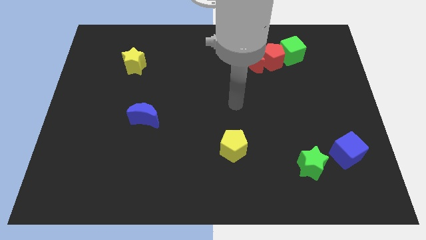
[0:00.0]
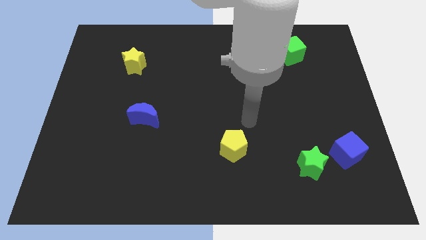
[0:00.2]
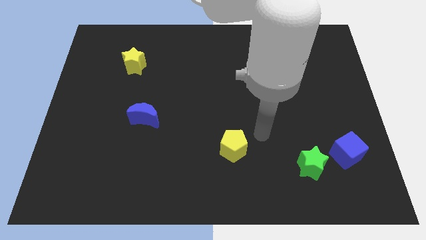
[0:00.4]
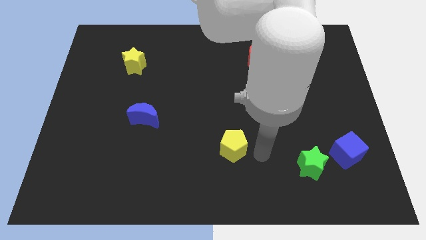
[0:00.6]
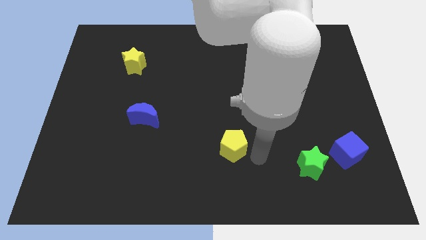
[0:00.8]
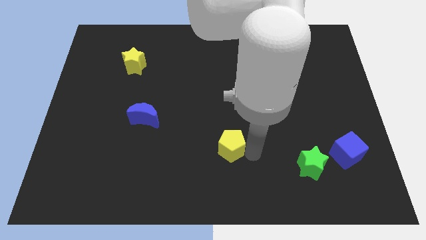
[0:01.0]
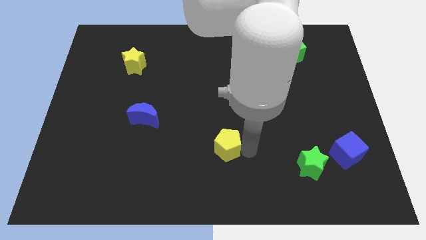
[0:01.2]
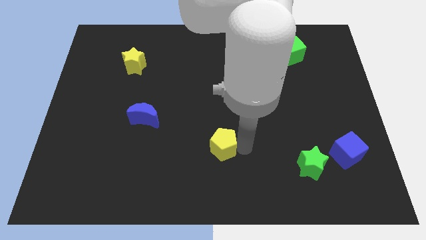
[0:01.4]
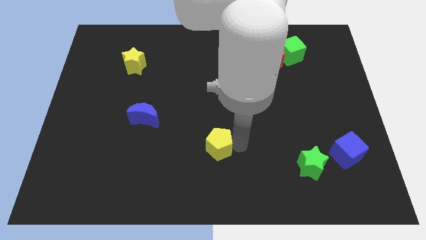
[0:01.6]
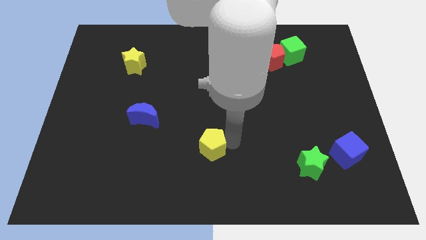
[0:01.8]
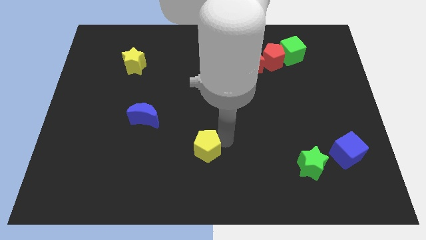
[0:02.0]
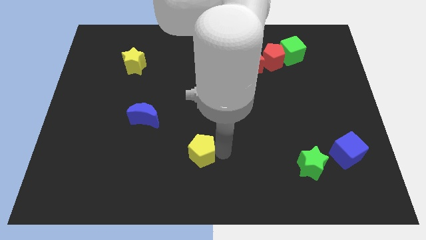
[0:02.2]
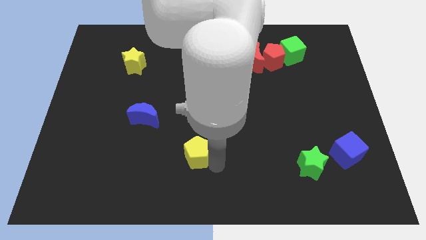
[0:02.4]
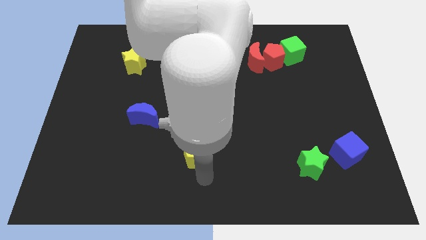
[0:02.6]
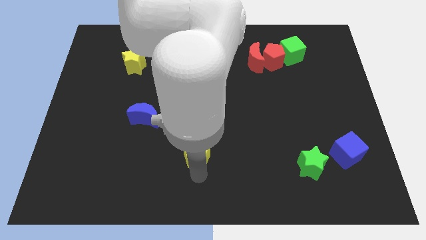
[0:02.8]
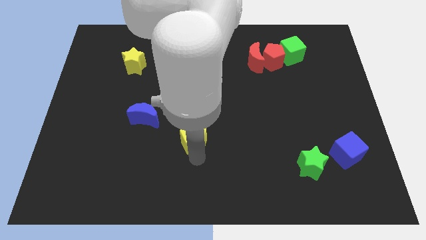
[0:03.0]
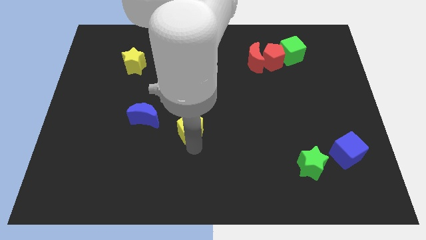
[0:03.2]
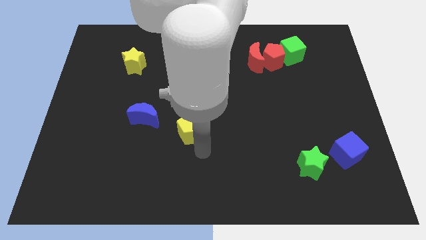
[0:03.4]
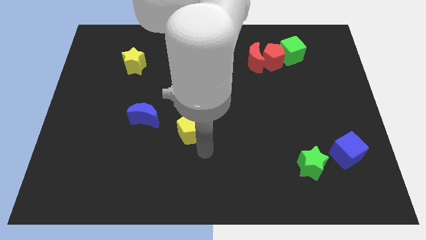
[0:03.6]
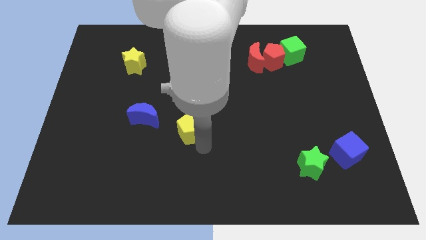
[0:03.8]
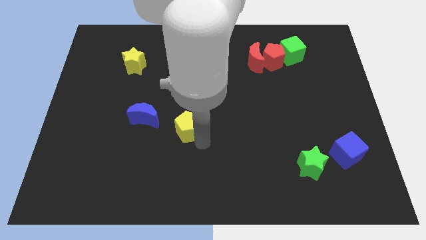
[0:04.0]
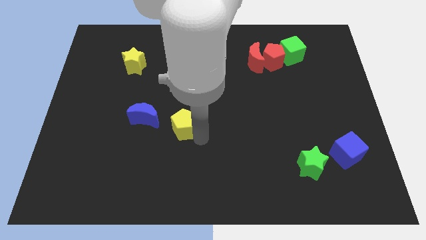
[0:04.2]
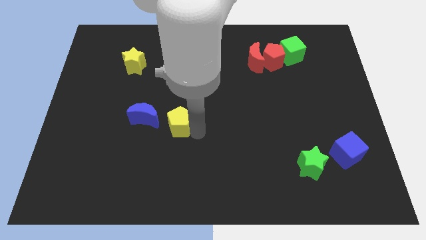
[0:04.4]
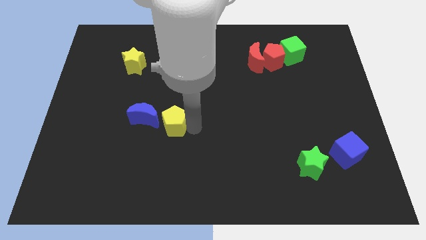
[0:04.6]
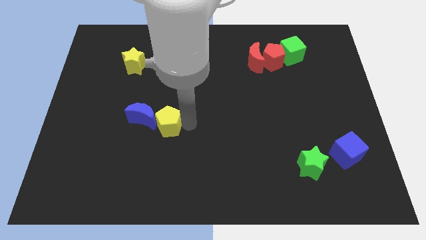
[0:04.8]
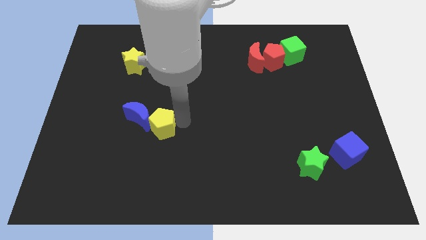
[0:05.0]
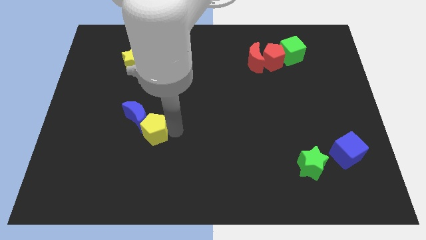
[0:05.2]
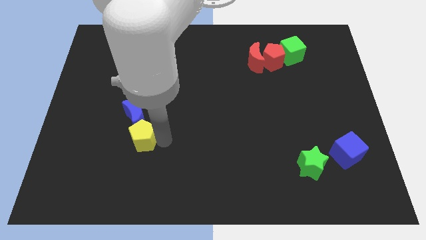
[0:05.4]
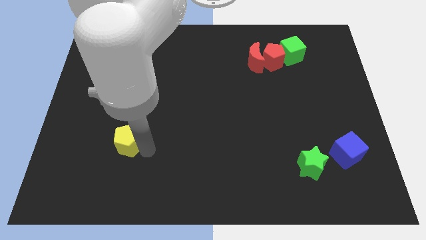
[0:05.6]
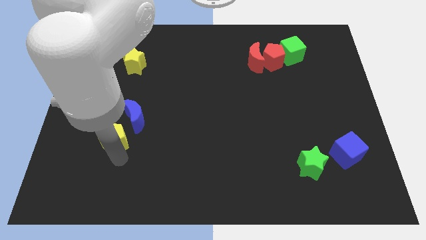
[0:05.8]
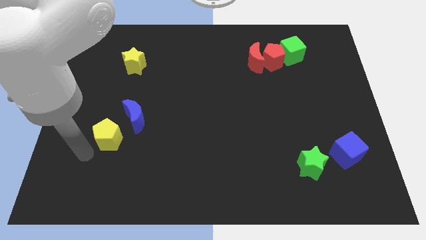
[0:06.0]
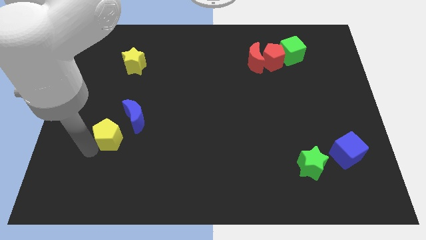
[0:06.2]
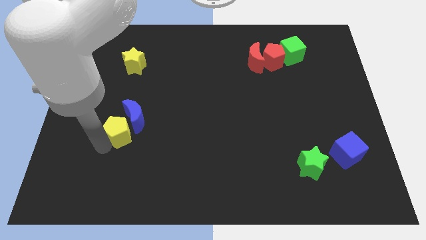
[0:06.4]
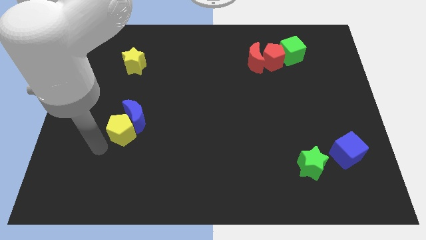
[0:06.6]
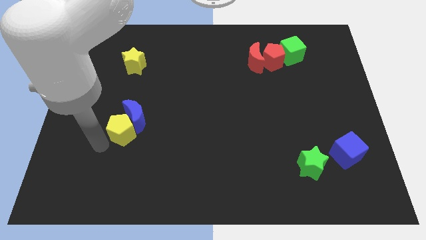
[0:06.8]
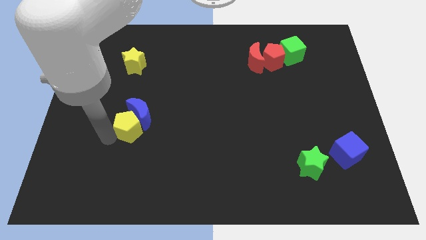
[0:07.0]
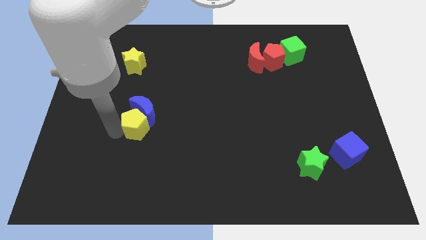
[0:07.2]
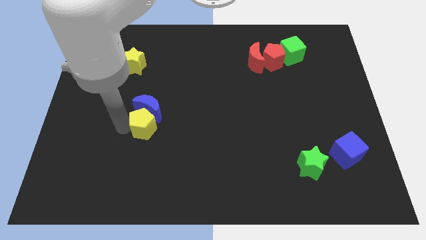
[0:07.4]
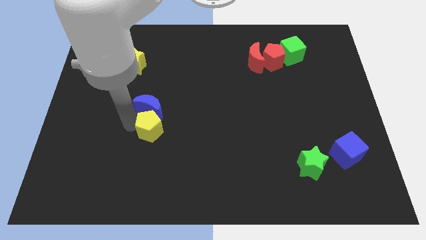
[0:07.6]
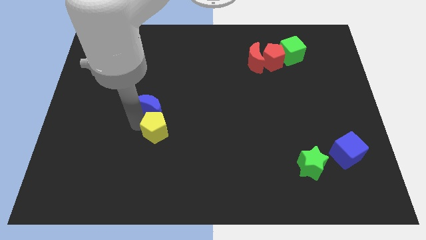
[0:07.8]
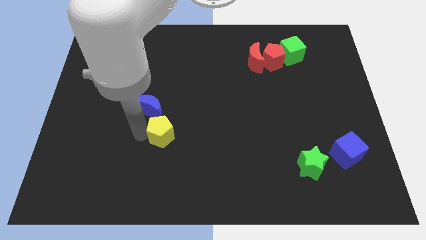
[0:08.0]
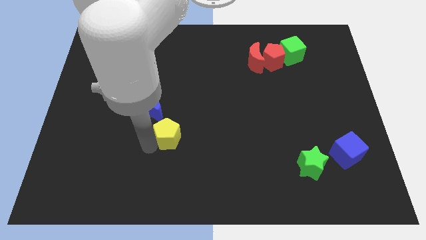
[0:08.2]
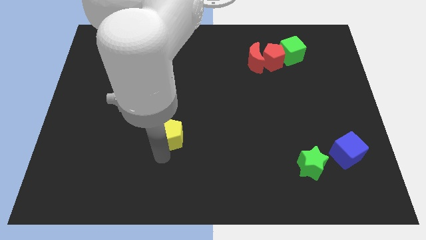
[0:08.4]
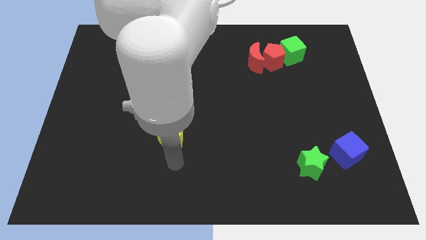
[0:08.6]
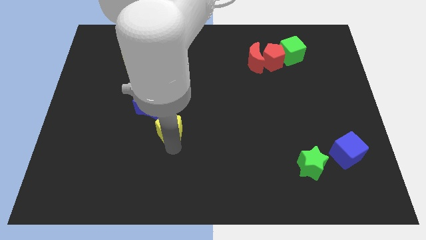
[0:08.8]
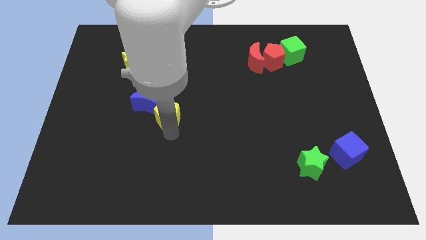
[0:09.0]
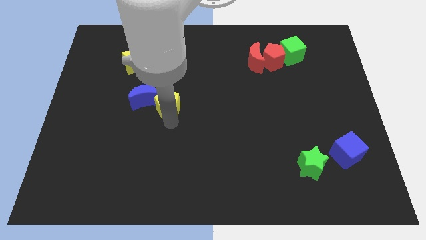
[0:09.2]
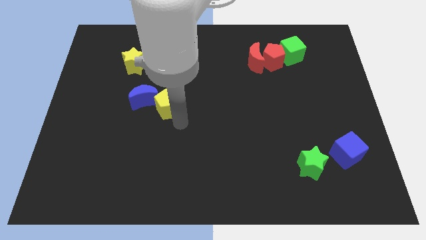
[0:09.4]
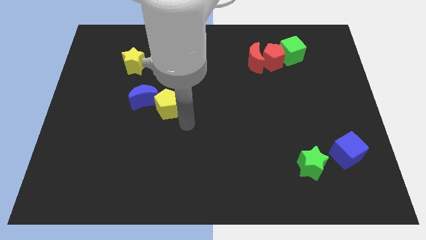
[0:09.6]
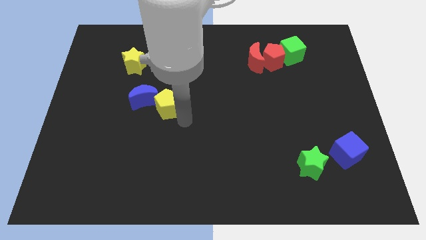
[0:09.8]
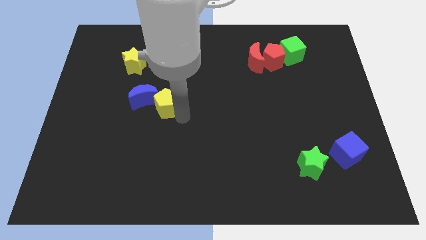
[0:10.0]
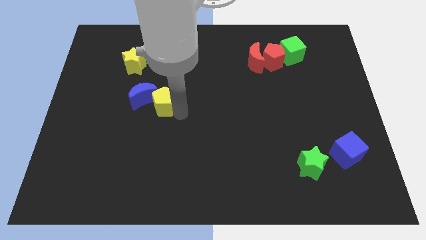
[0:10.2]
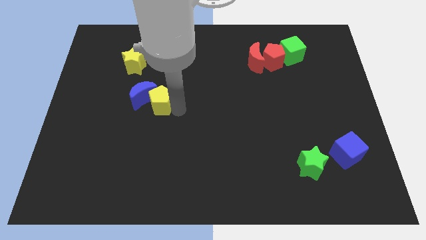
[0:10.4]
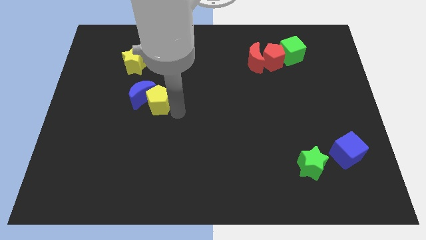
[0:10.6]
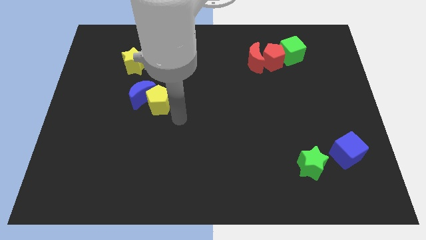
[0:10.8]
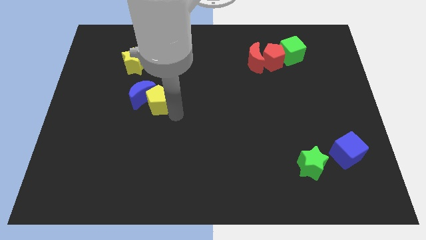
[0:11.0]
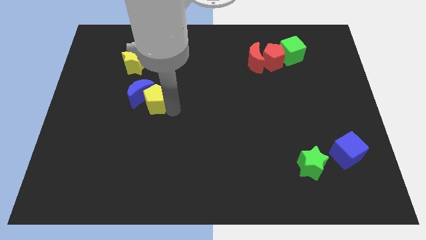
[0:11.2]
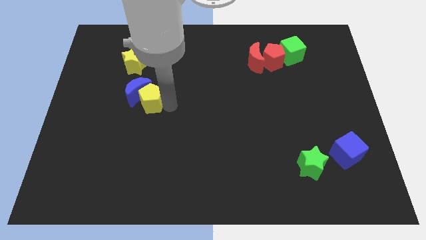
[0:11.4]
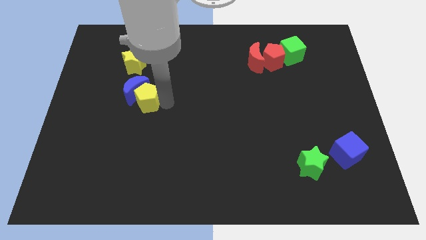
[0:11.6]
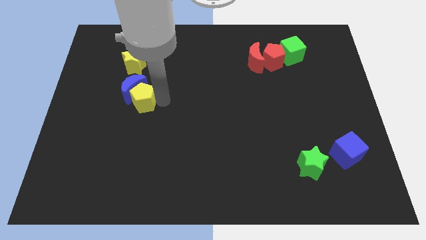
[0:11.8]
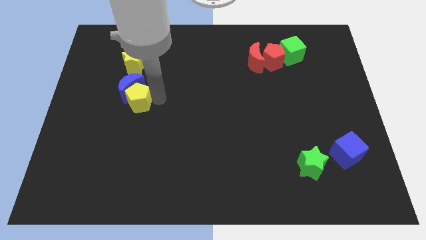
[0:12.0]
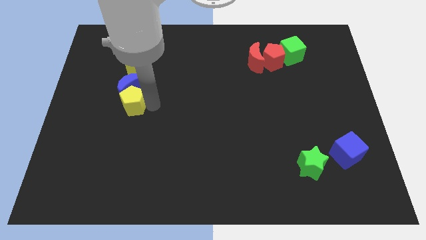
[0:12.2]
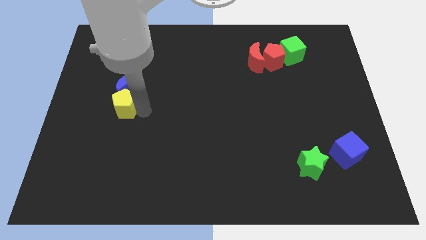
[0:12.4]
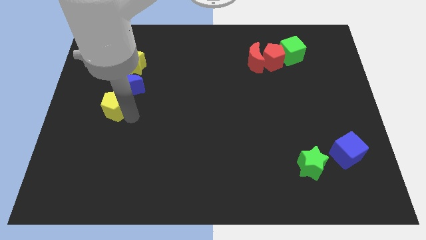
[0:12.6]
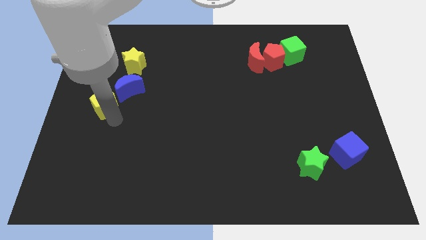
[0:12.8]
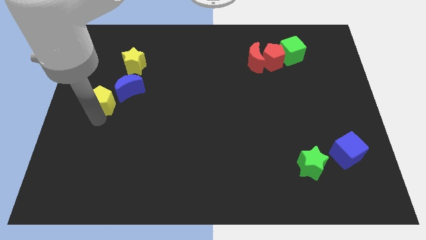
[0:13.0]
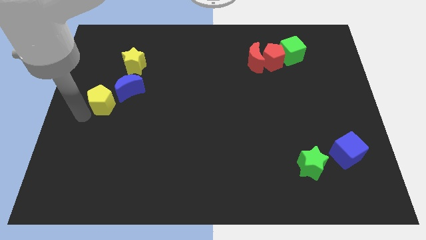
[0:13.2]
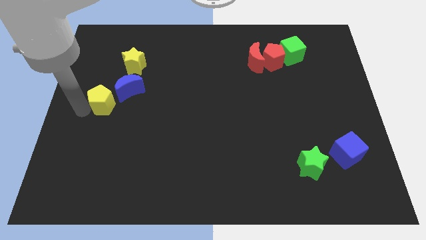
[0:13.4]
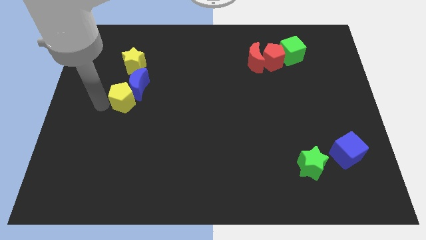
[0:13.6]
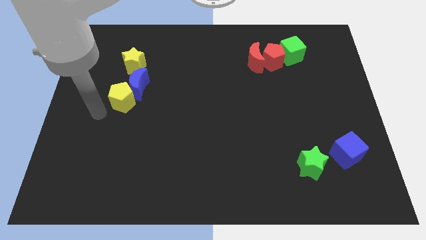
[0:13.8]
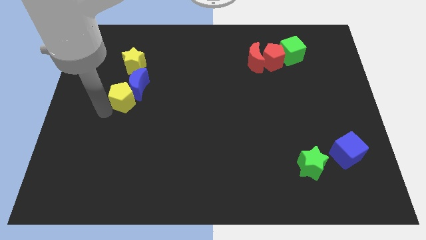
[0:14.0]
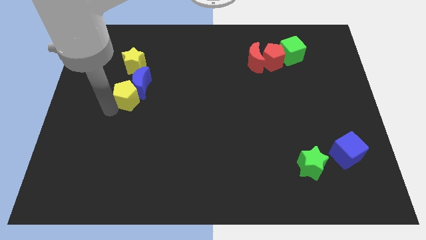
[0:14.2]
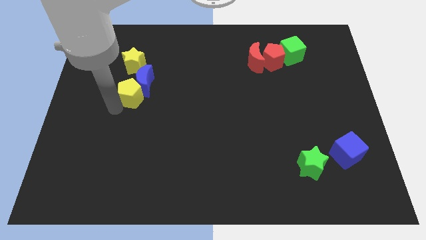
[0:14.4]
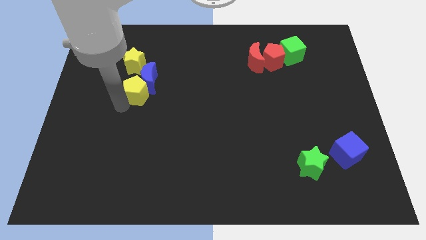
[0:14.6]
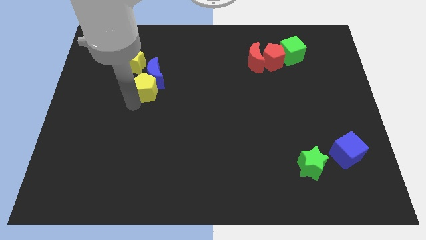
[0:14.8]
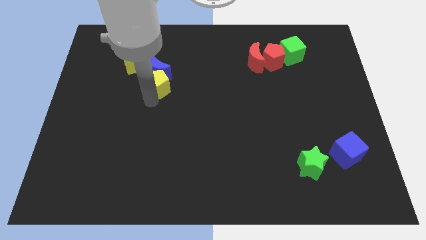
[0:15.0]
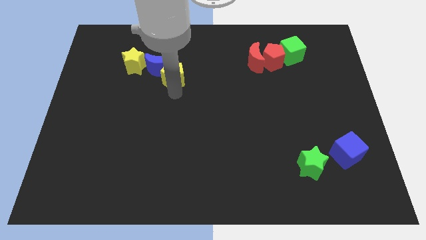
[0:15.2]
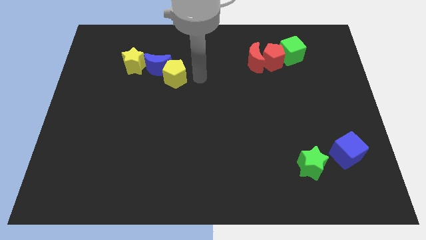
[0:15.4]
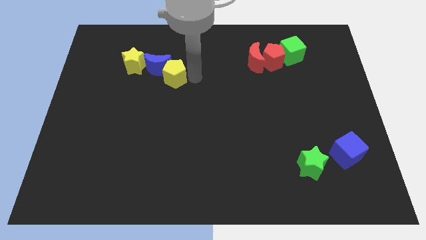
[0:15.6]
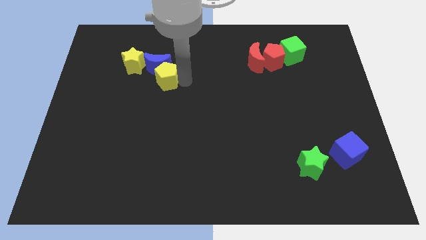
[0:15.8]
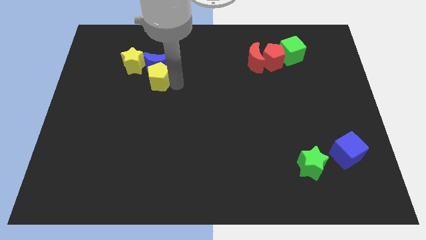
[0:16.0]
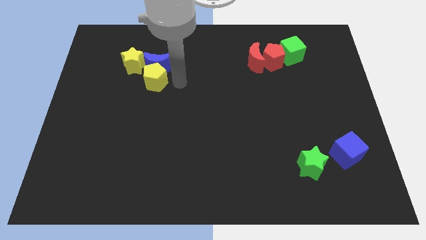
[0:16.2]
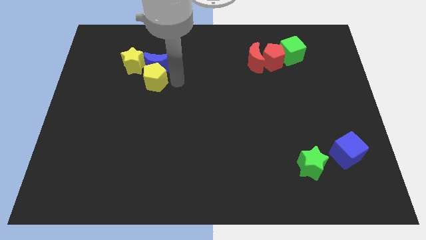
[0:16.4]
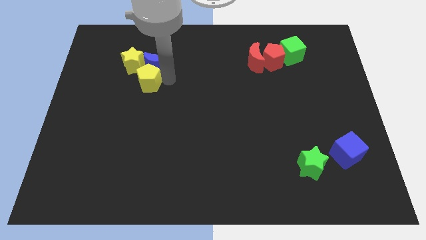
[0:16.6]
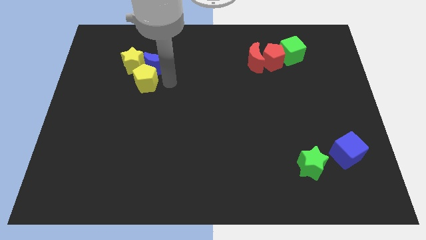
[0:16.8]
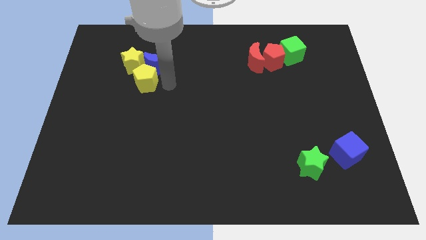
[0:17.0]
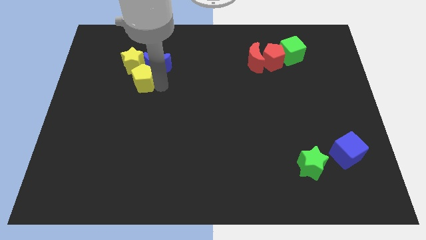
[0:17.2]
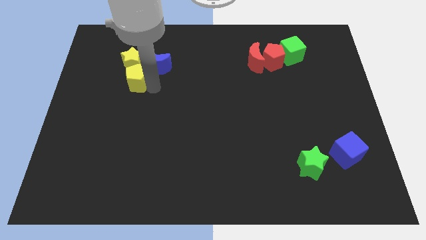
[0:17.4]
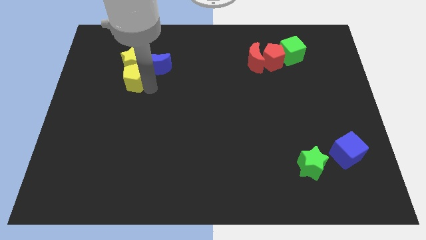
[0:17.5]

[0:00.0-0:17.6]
push the yellow pentagon to the bottom left side of the yellow star
